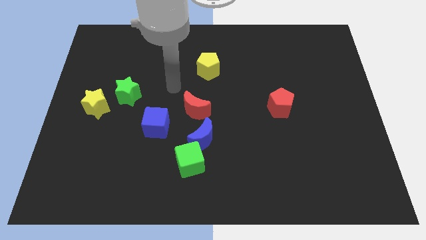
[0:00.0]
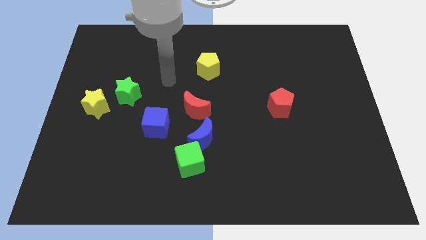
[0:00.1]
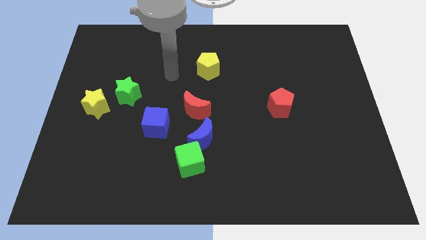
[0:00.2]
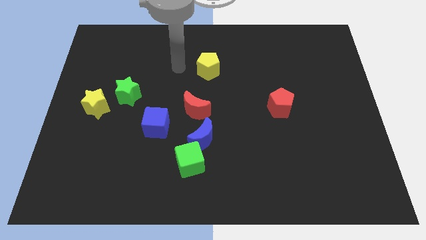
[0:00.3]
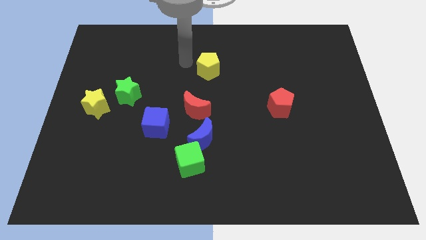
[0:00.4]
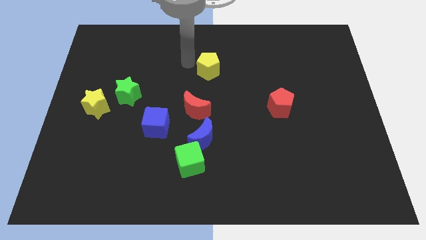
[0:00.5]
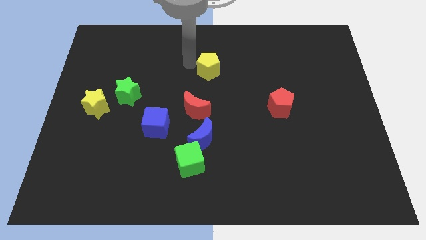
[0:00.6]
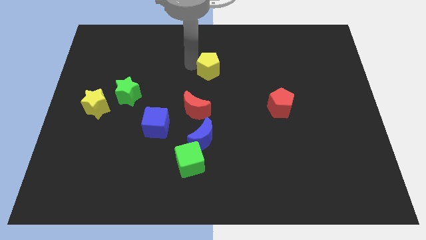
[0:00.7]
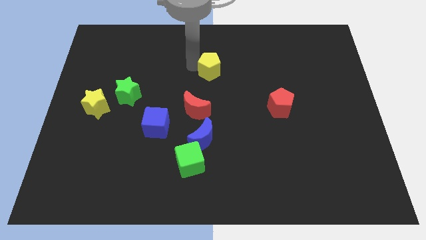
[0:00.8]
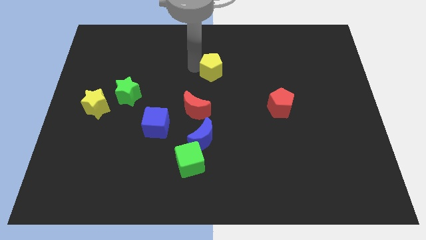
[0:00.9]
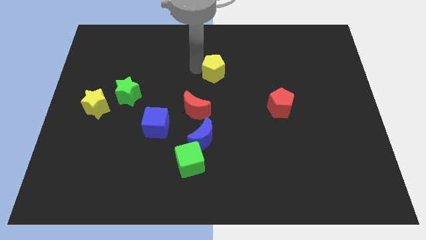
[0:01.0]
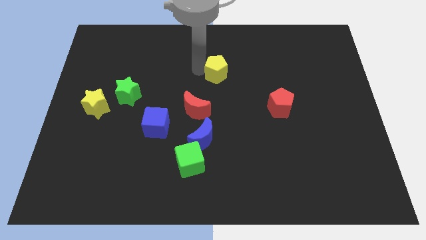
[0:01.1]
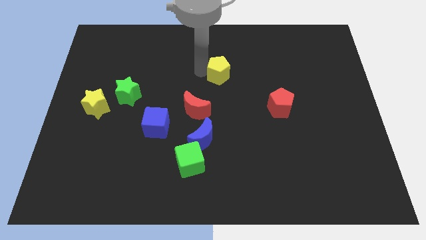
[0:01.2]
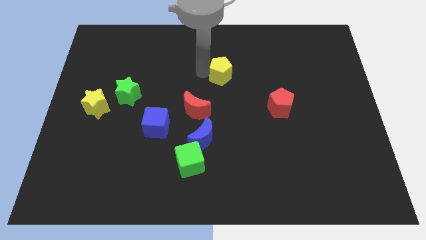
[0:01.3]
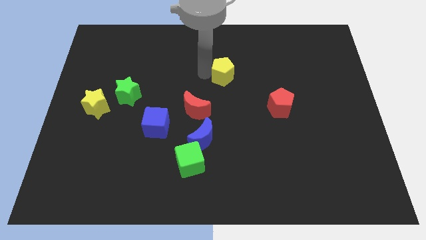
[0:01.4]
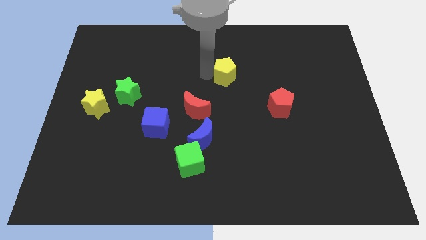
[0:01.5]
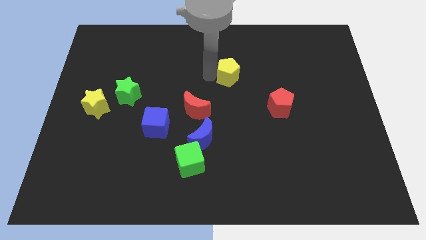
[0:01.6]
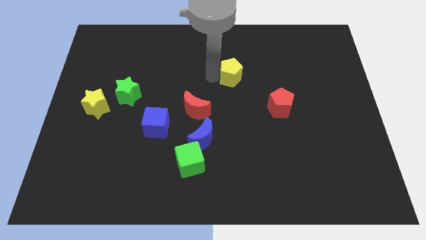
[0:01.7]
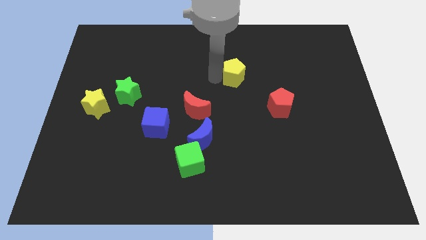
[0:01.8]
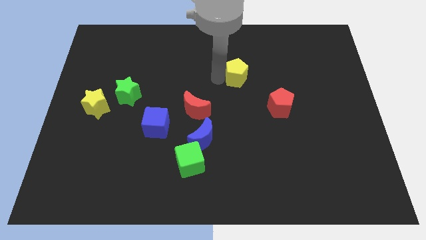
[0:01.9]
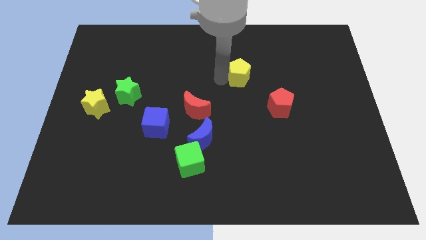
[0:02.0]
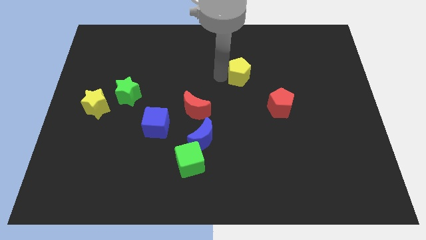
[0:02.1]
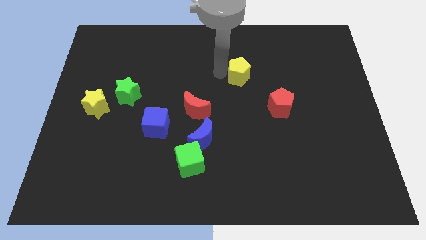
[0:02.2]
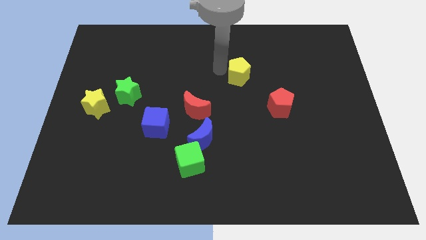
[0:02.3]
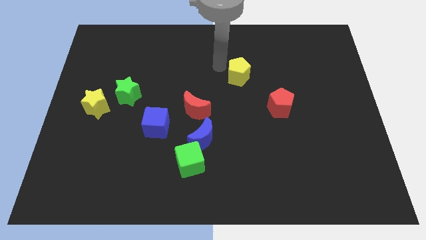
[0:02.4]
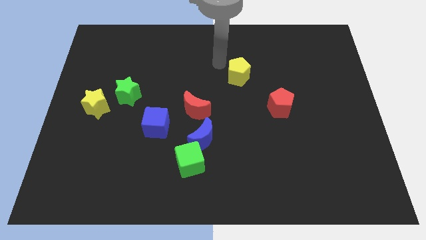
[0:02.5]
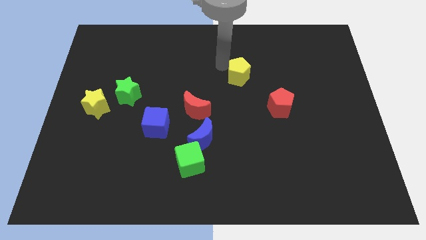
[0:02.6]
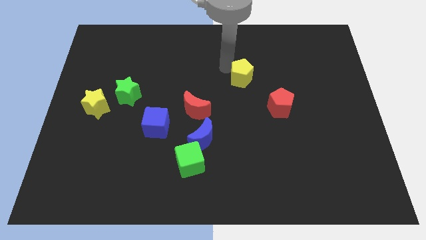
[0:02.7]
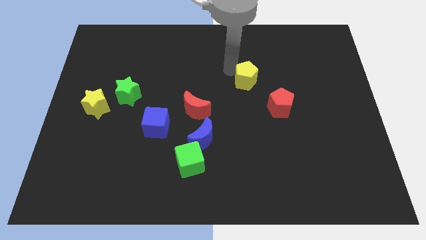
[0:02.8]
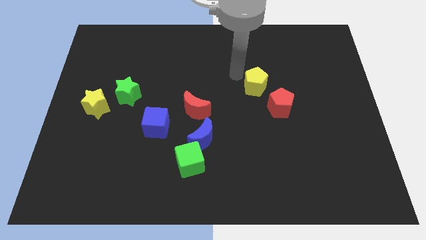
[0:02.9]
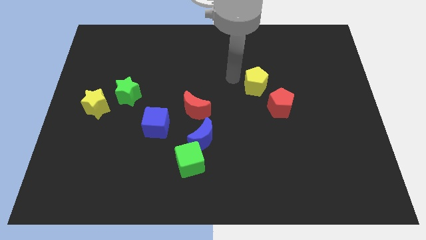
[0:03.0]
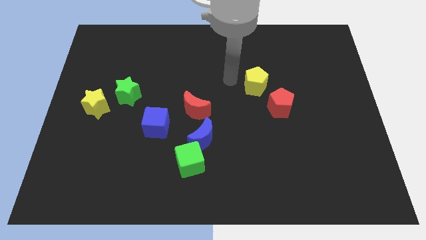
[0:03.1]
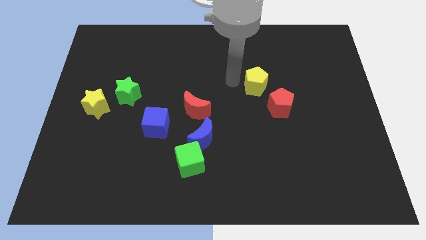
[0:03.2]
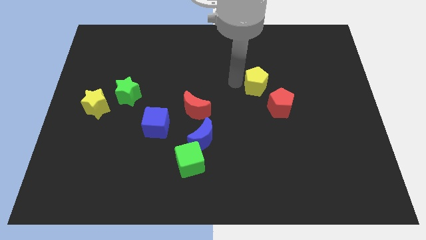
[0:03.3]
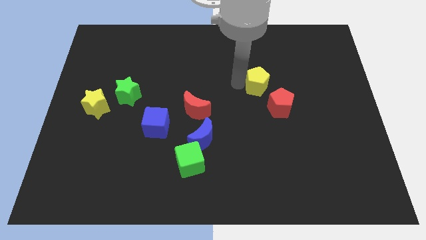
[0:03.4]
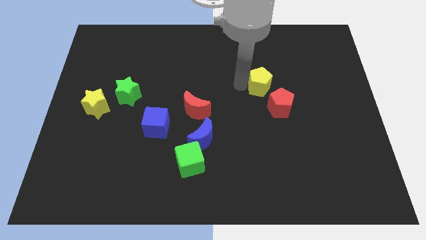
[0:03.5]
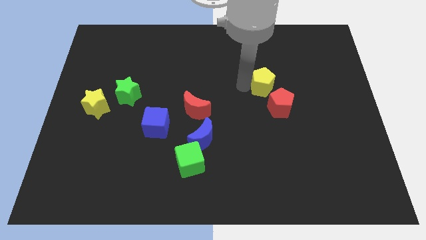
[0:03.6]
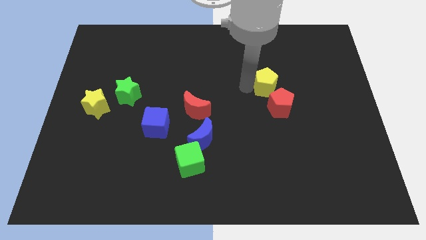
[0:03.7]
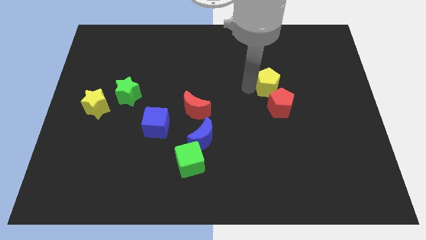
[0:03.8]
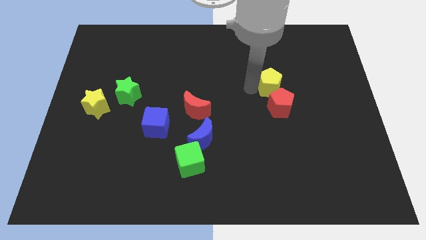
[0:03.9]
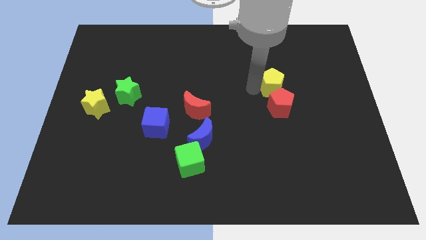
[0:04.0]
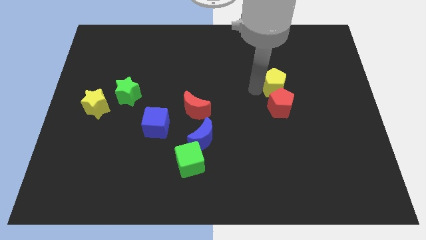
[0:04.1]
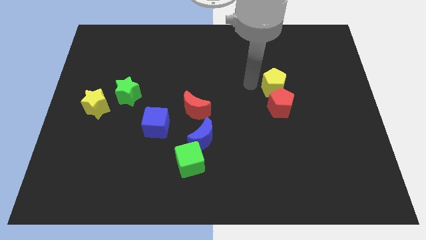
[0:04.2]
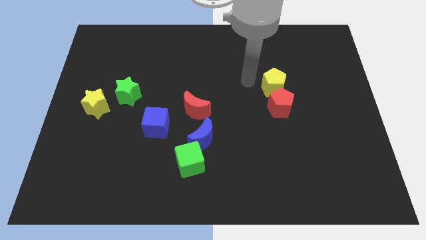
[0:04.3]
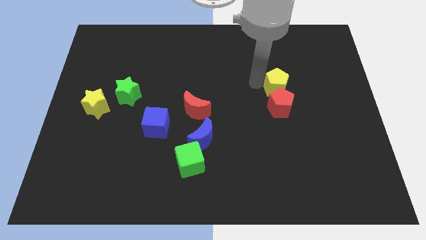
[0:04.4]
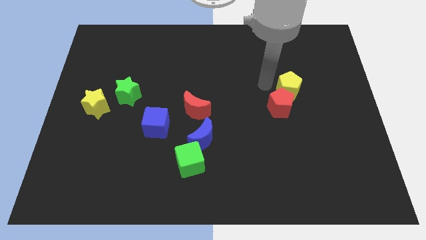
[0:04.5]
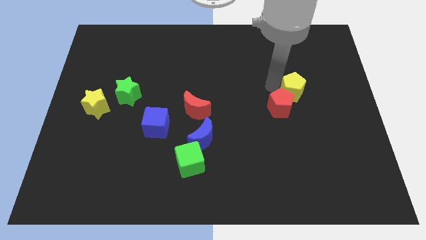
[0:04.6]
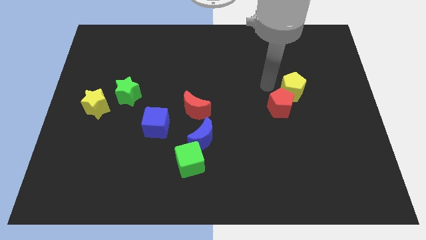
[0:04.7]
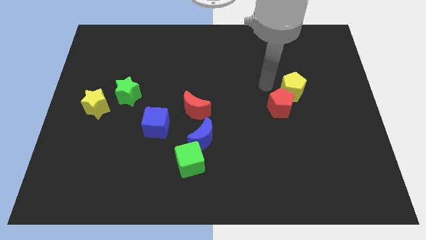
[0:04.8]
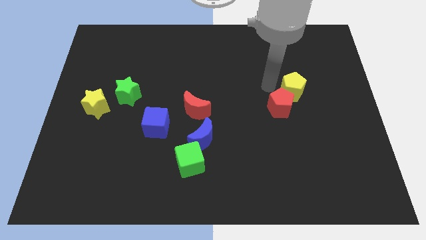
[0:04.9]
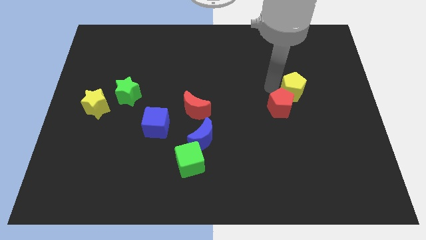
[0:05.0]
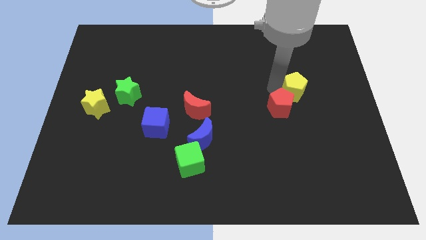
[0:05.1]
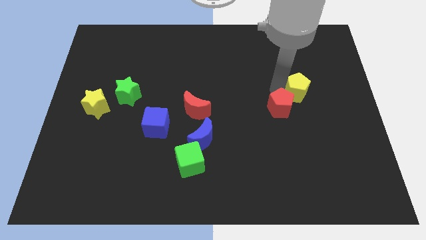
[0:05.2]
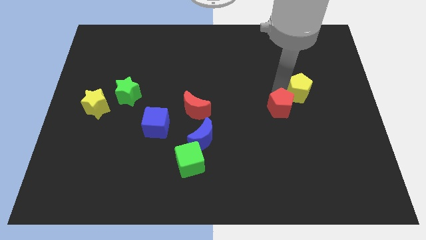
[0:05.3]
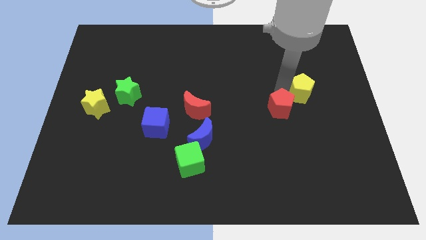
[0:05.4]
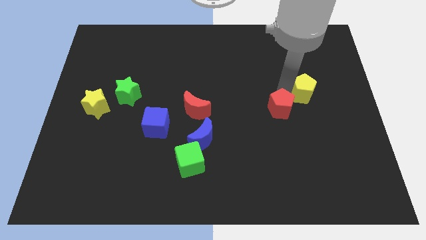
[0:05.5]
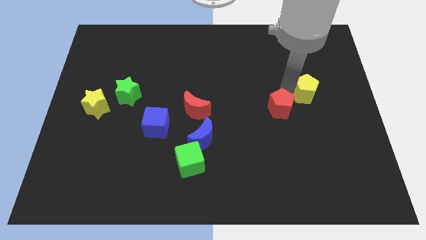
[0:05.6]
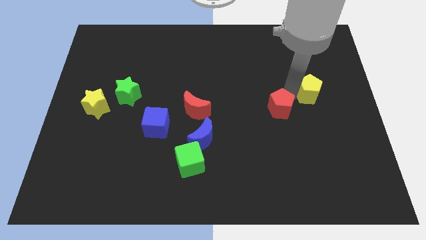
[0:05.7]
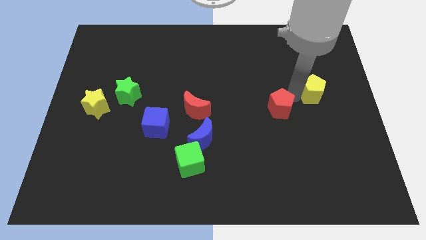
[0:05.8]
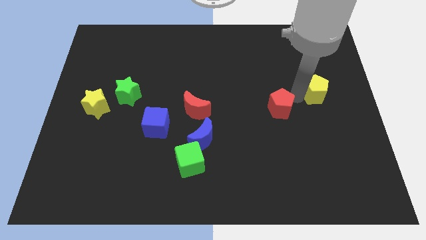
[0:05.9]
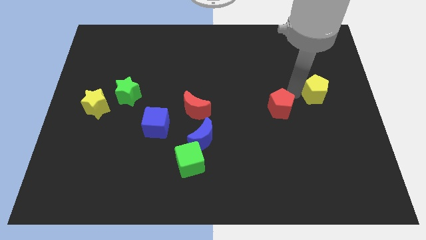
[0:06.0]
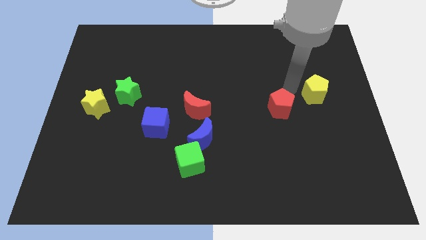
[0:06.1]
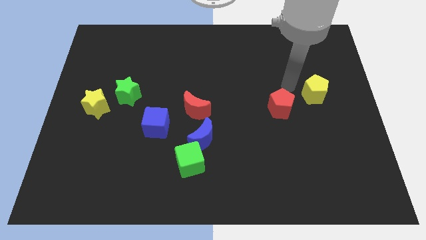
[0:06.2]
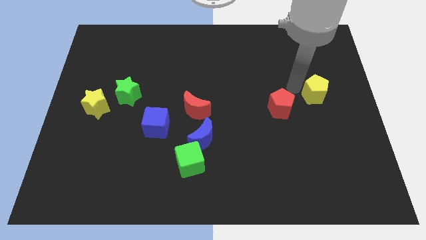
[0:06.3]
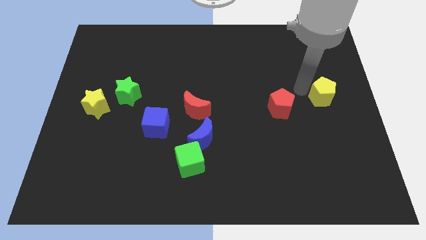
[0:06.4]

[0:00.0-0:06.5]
push the yellow pentagon to the right side
